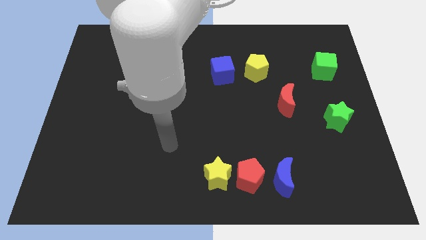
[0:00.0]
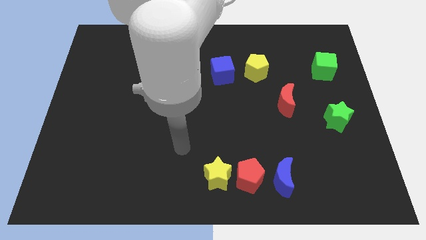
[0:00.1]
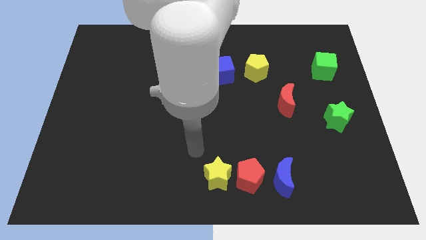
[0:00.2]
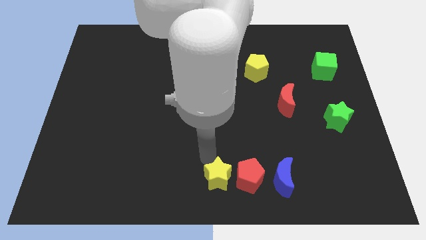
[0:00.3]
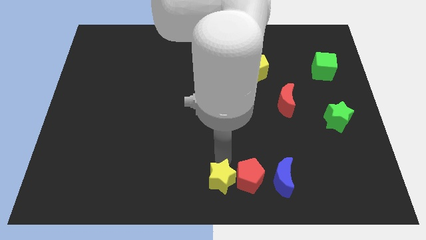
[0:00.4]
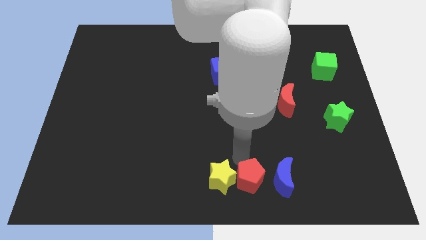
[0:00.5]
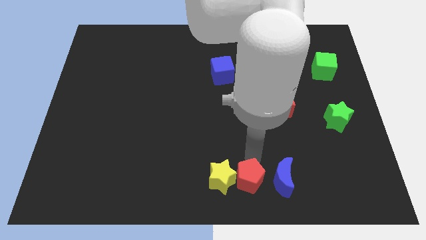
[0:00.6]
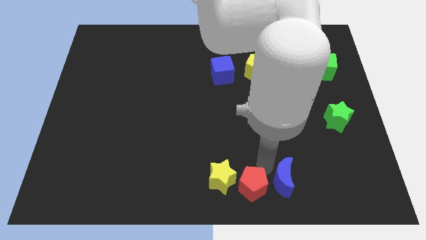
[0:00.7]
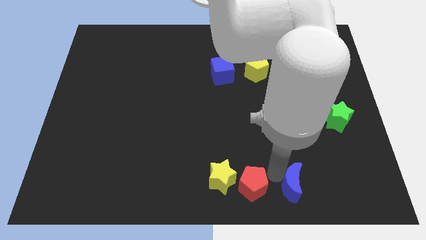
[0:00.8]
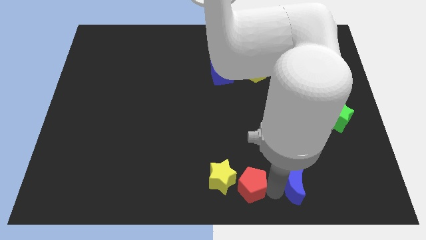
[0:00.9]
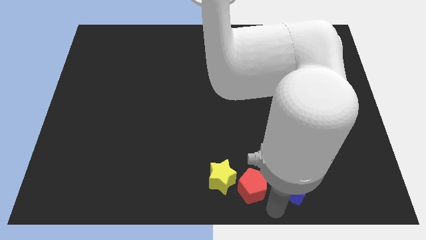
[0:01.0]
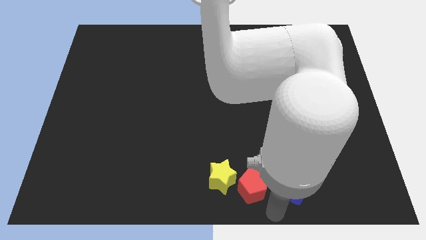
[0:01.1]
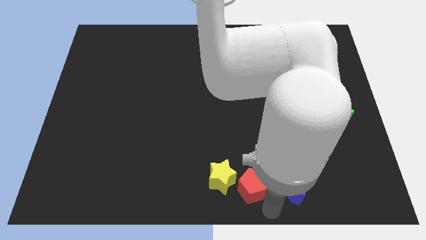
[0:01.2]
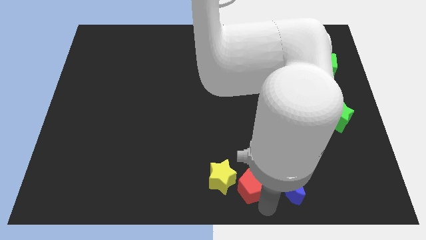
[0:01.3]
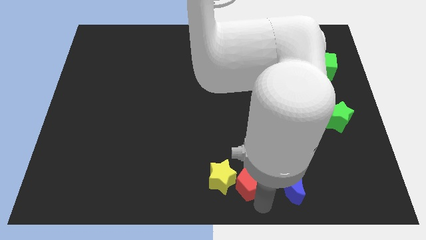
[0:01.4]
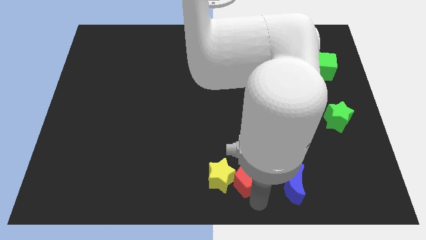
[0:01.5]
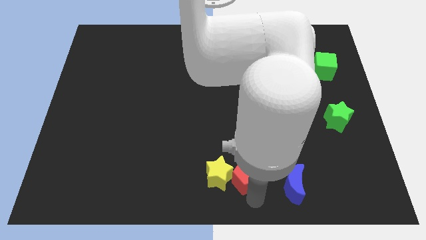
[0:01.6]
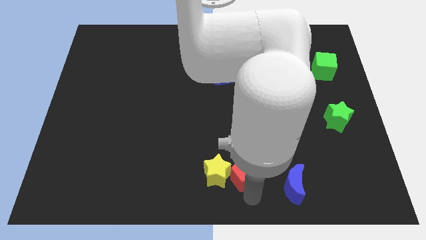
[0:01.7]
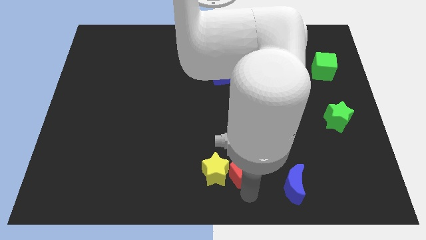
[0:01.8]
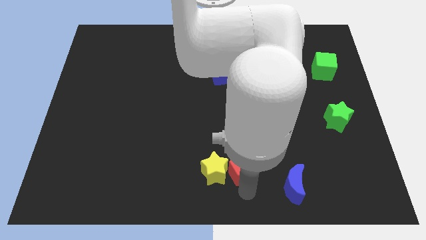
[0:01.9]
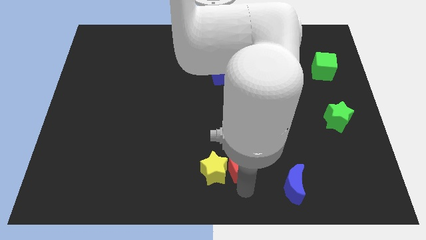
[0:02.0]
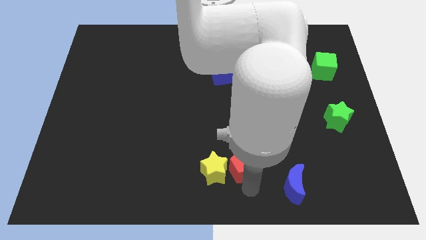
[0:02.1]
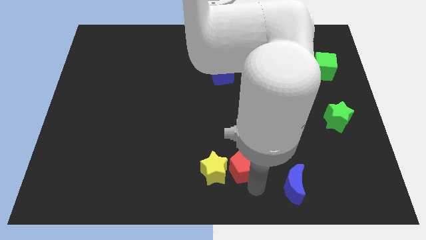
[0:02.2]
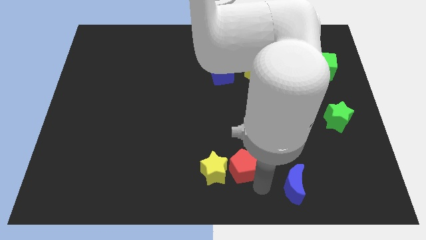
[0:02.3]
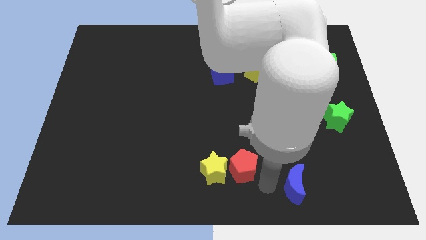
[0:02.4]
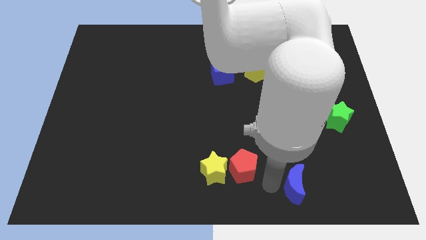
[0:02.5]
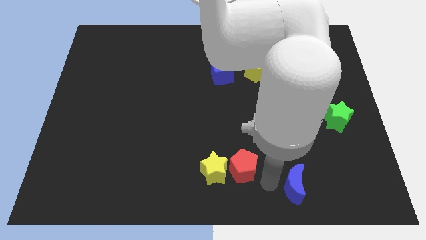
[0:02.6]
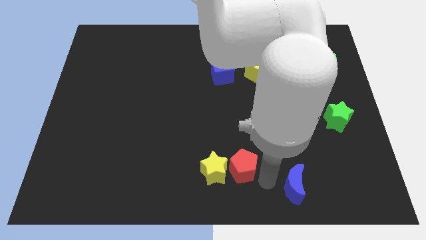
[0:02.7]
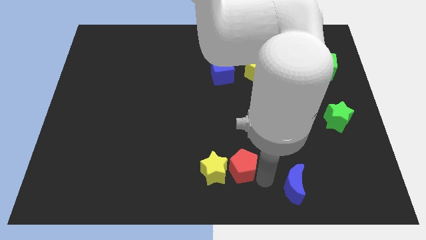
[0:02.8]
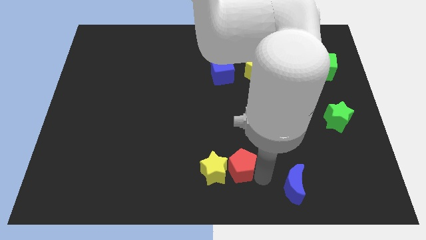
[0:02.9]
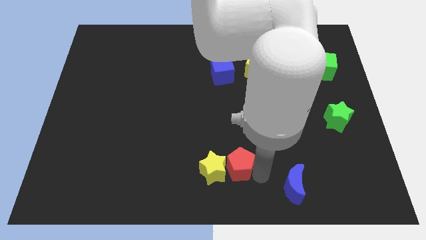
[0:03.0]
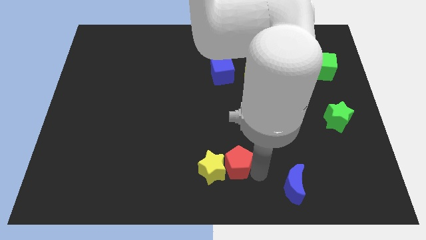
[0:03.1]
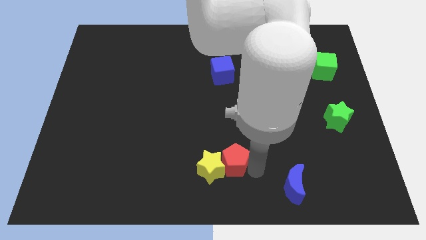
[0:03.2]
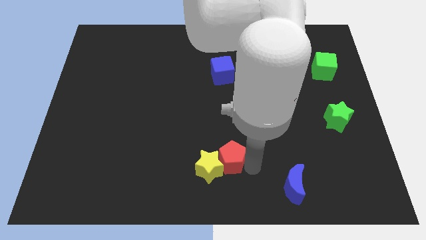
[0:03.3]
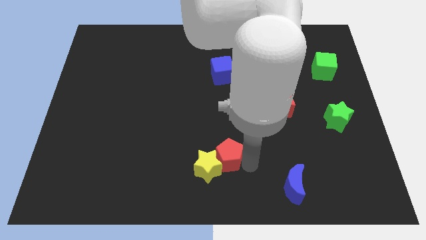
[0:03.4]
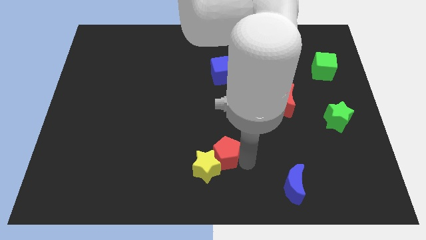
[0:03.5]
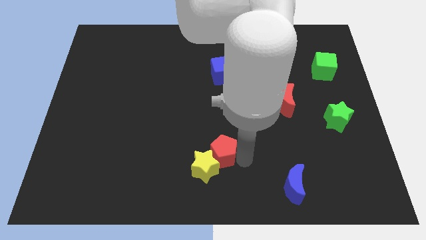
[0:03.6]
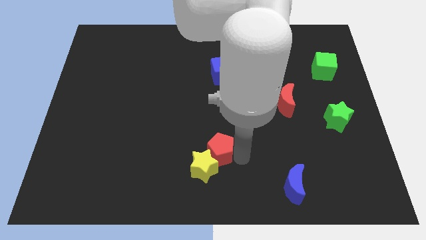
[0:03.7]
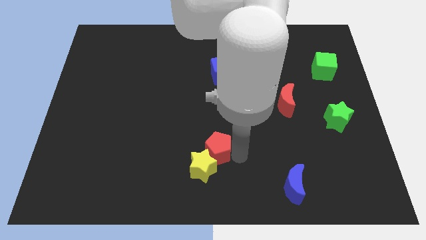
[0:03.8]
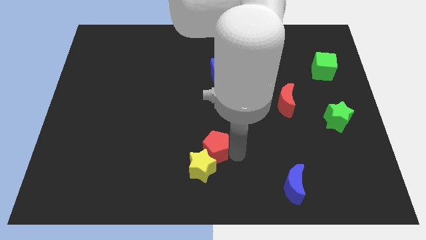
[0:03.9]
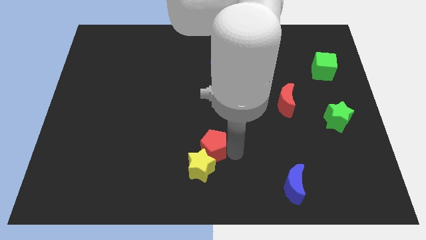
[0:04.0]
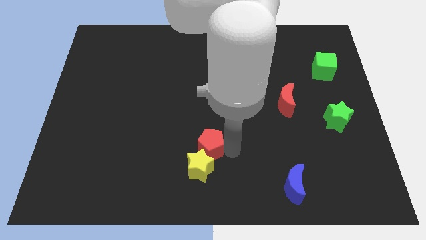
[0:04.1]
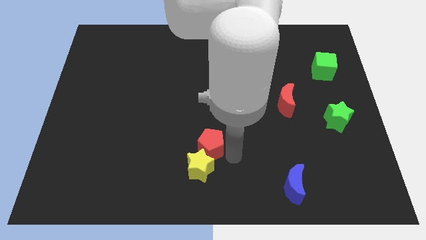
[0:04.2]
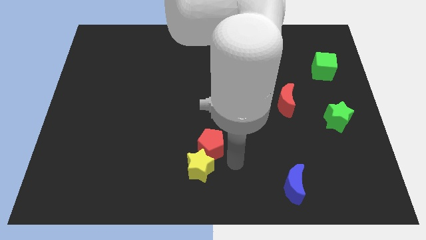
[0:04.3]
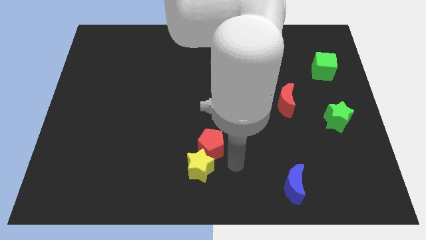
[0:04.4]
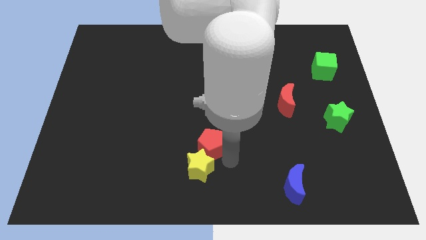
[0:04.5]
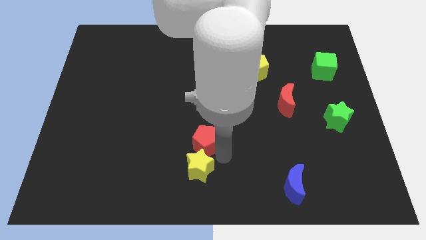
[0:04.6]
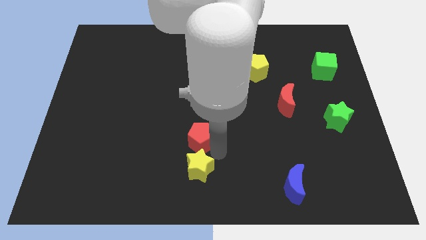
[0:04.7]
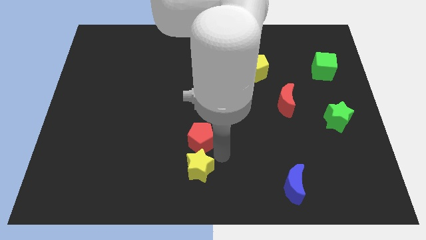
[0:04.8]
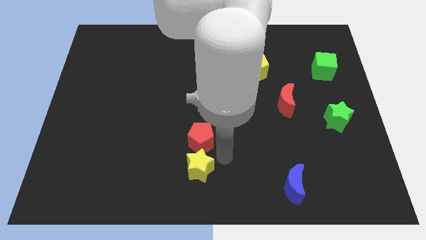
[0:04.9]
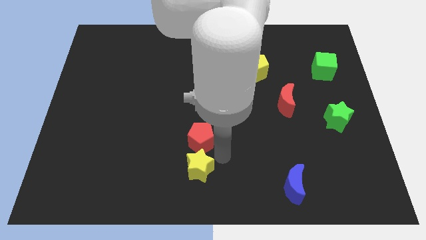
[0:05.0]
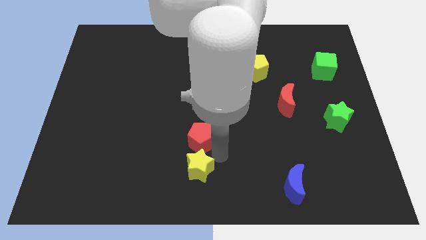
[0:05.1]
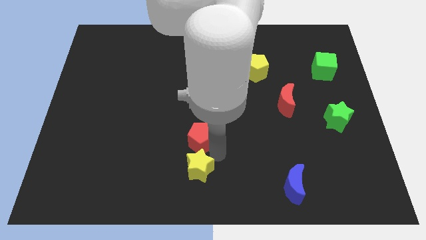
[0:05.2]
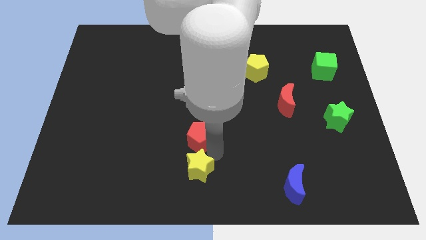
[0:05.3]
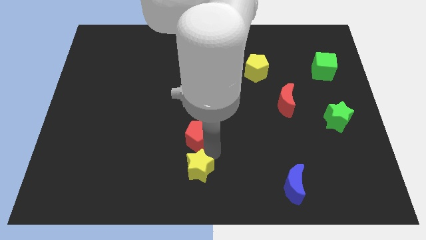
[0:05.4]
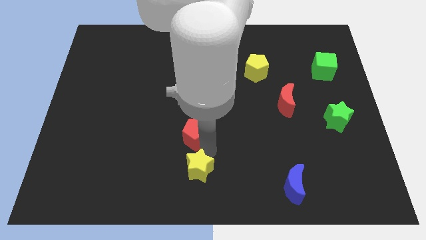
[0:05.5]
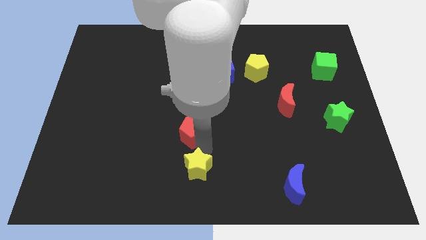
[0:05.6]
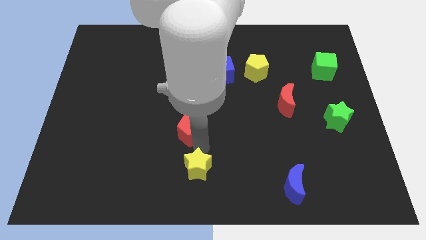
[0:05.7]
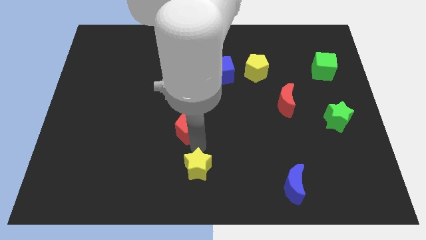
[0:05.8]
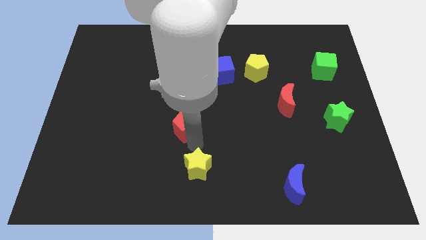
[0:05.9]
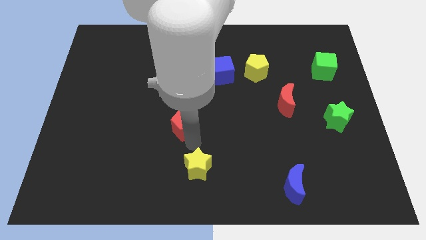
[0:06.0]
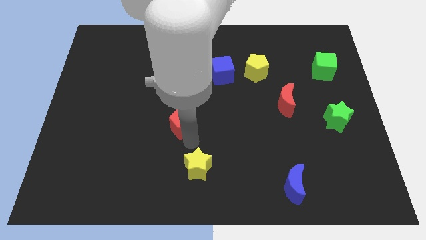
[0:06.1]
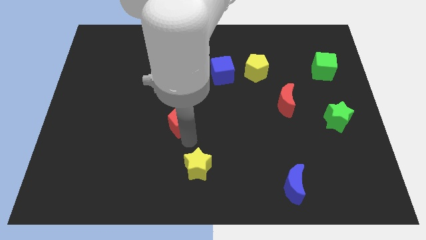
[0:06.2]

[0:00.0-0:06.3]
push the red pentagon up and left

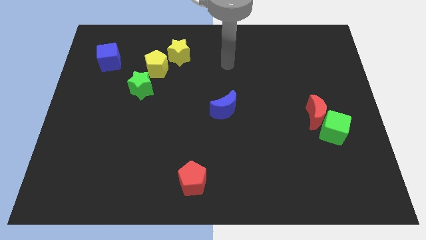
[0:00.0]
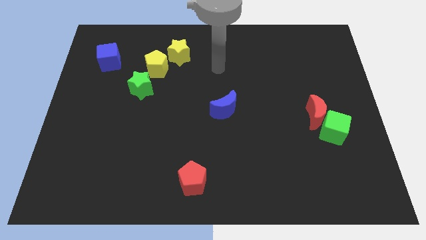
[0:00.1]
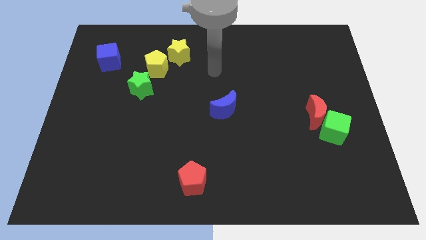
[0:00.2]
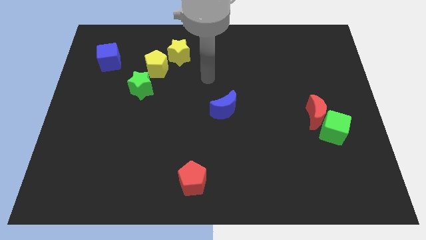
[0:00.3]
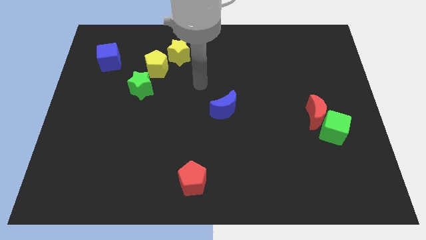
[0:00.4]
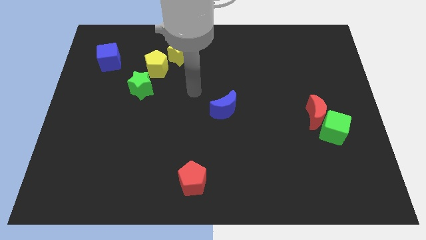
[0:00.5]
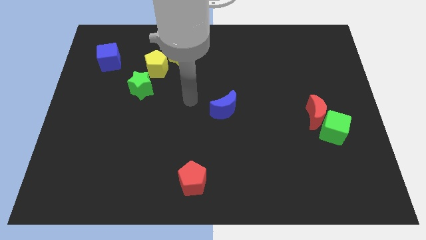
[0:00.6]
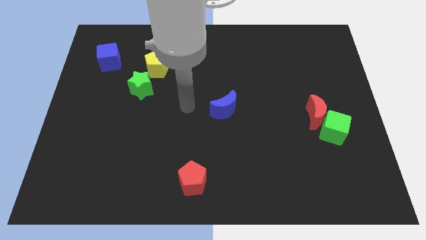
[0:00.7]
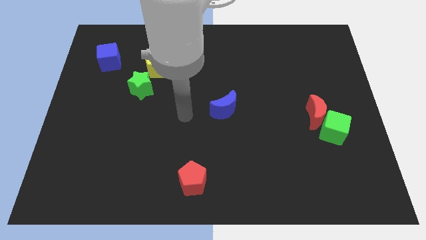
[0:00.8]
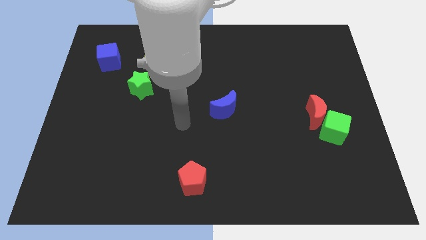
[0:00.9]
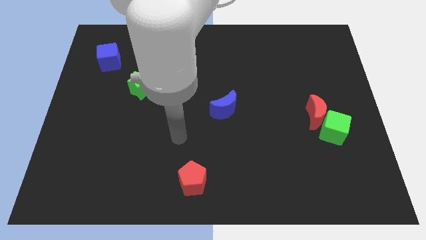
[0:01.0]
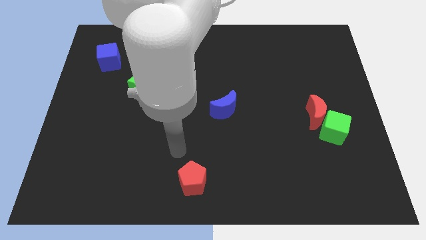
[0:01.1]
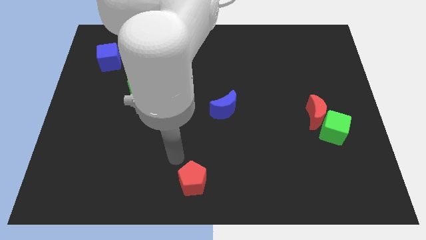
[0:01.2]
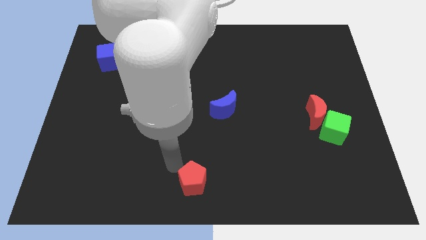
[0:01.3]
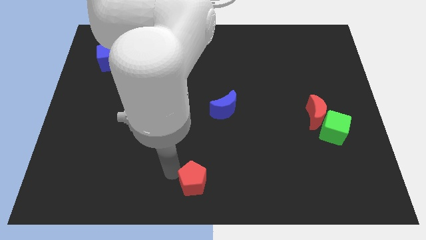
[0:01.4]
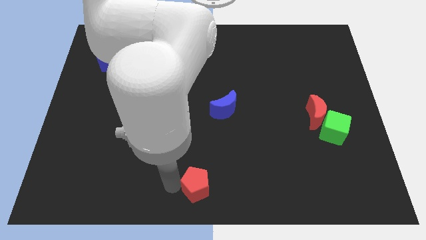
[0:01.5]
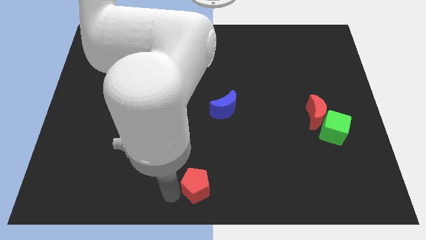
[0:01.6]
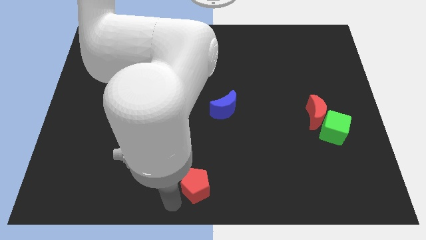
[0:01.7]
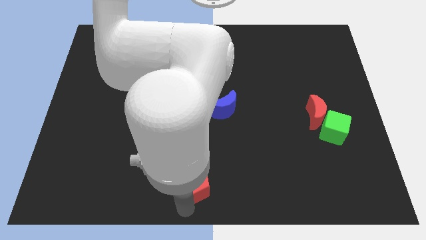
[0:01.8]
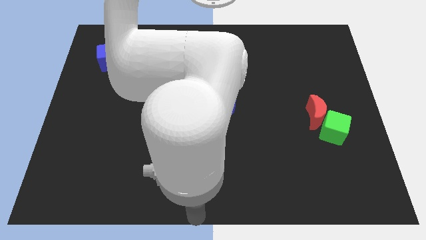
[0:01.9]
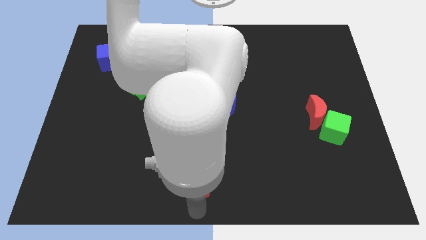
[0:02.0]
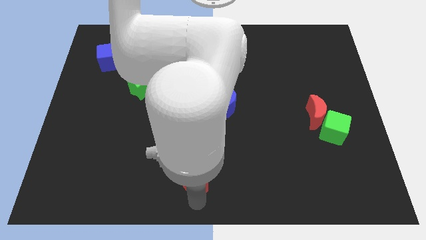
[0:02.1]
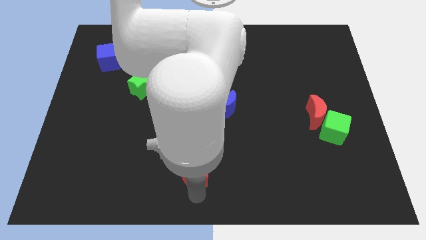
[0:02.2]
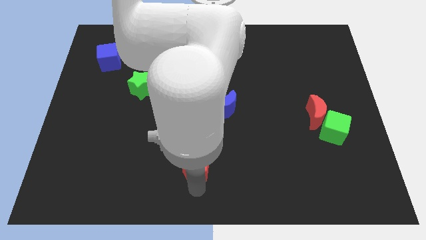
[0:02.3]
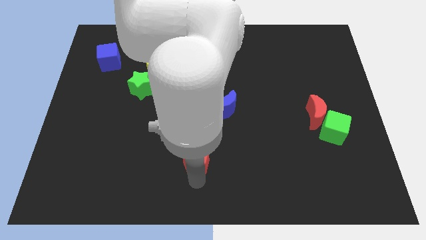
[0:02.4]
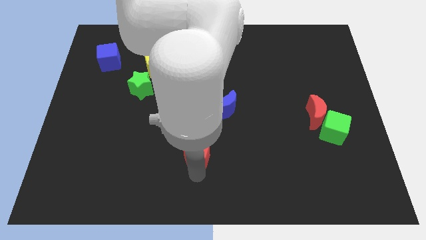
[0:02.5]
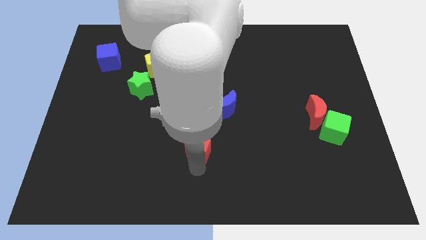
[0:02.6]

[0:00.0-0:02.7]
slightly move the red pentagon up
